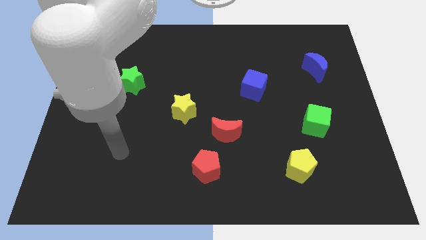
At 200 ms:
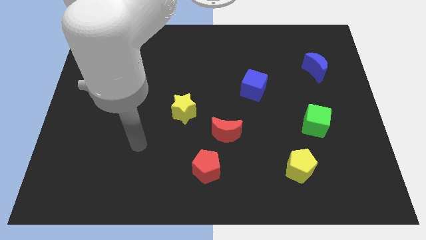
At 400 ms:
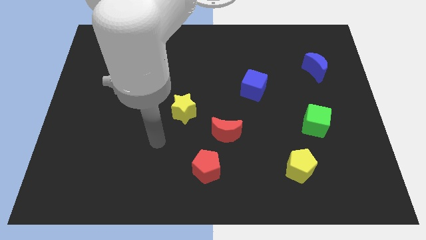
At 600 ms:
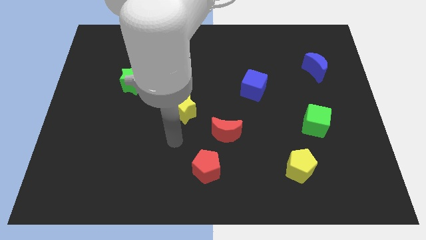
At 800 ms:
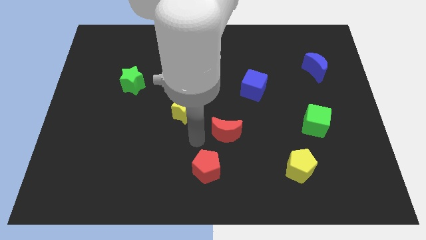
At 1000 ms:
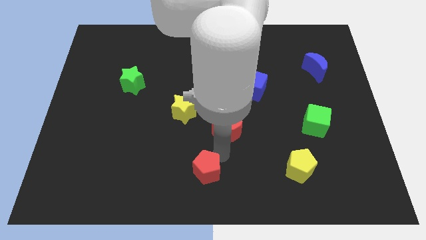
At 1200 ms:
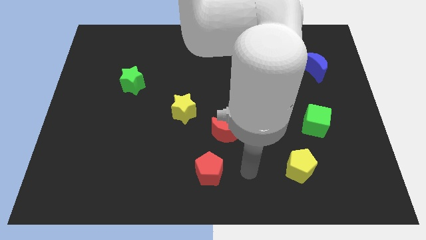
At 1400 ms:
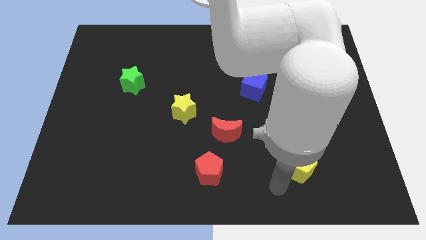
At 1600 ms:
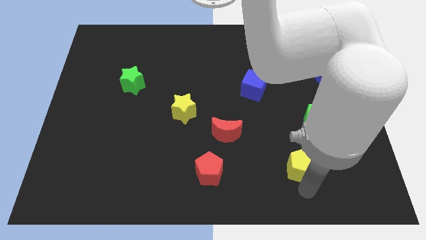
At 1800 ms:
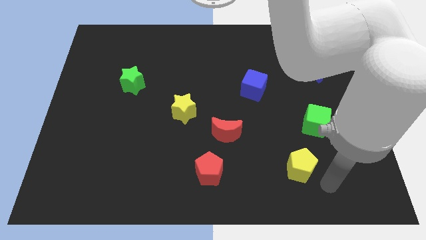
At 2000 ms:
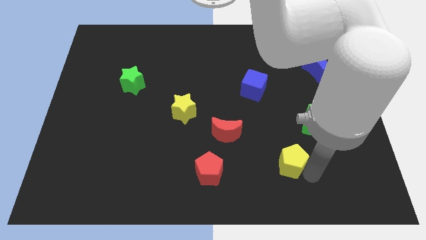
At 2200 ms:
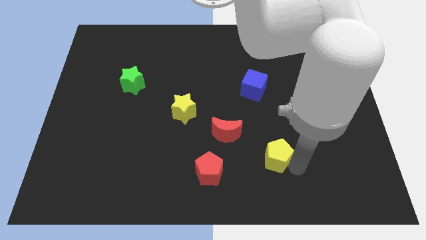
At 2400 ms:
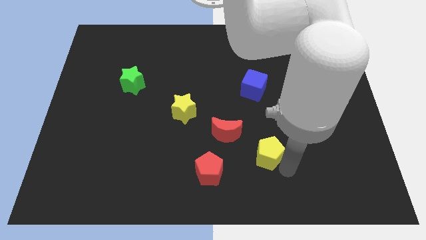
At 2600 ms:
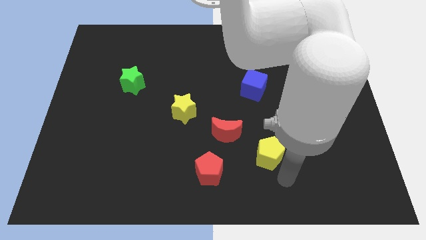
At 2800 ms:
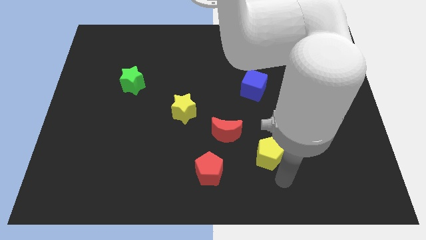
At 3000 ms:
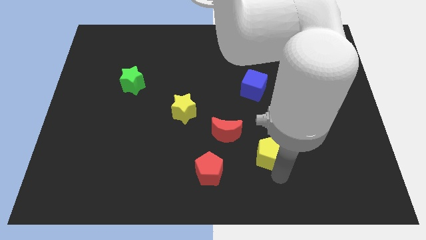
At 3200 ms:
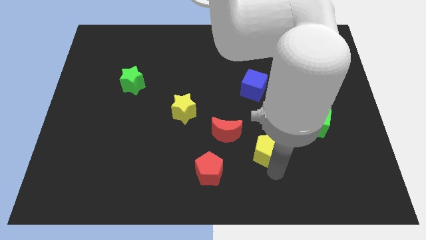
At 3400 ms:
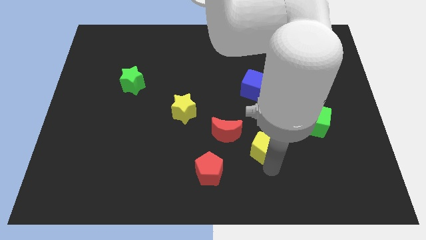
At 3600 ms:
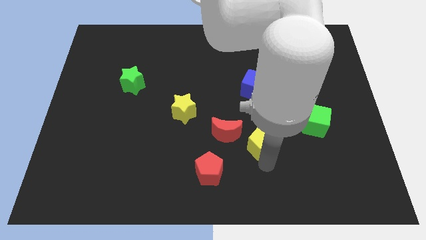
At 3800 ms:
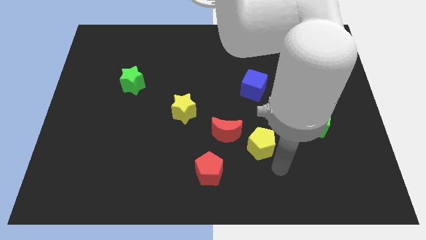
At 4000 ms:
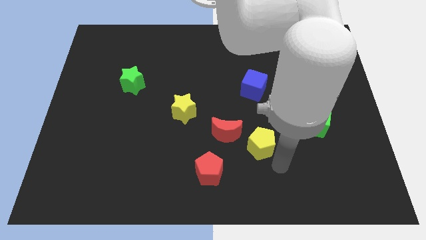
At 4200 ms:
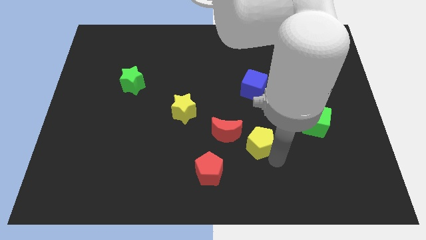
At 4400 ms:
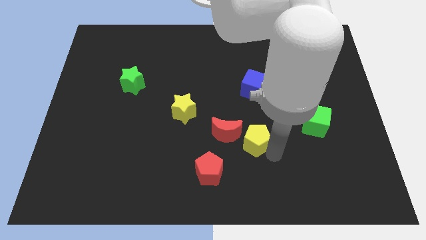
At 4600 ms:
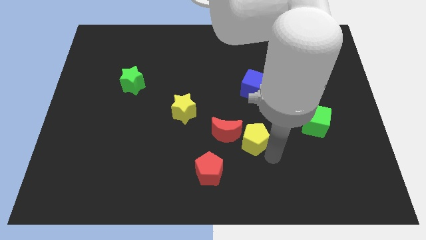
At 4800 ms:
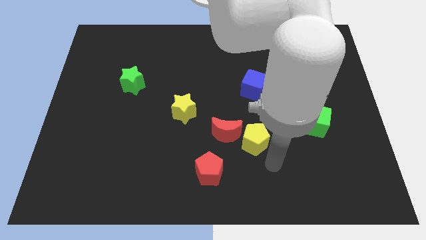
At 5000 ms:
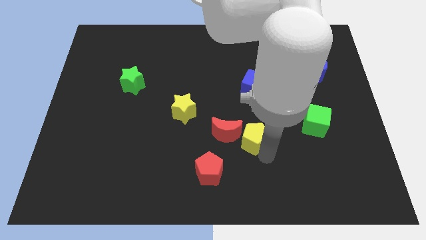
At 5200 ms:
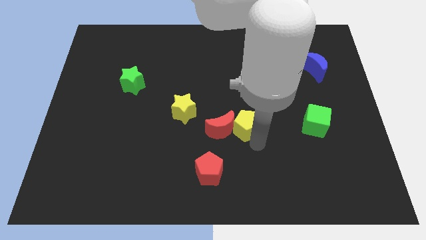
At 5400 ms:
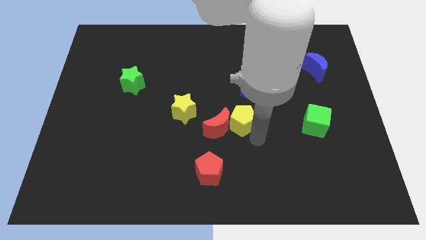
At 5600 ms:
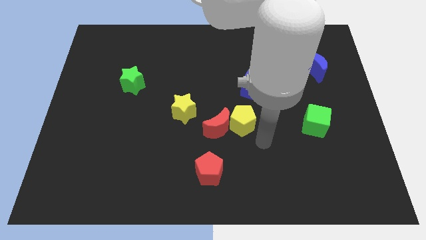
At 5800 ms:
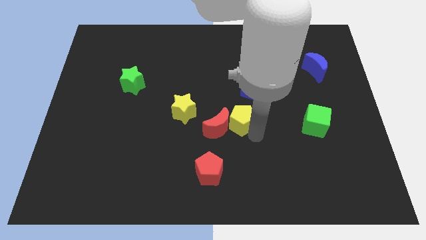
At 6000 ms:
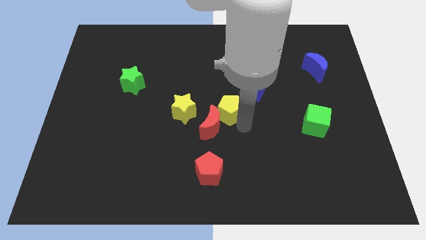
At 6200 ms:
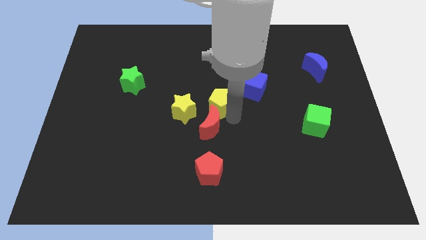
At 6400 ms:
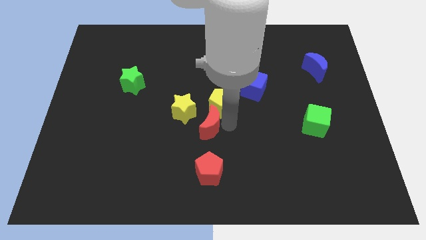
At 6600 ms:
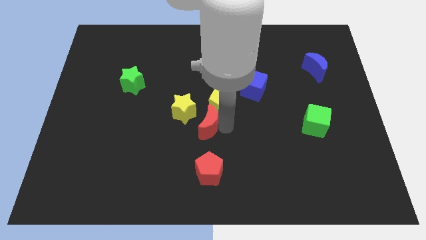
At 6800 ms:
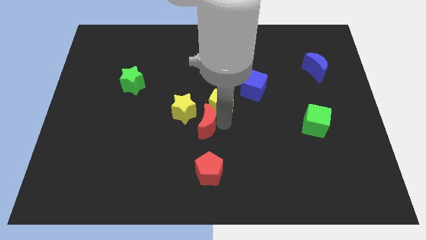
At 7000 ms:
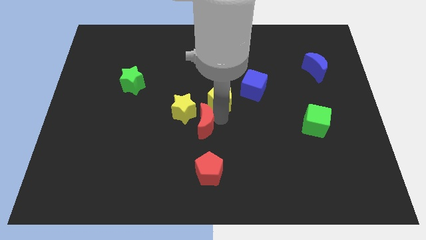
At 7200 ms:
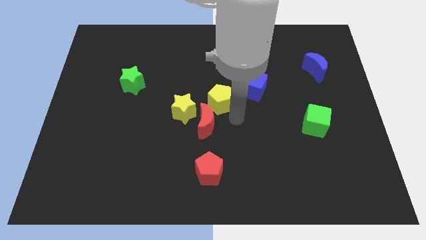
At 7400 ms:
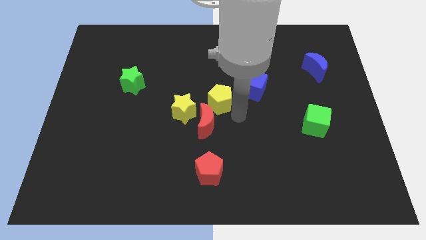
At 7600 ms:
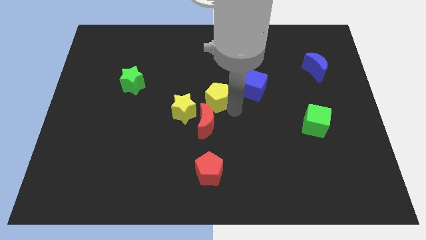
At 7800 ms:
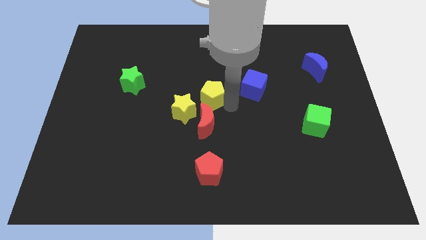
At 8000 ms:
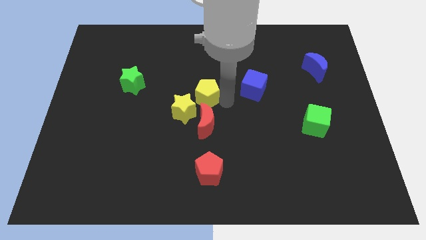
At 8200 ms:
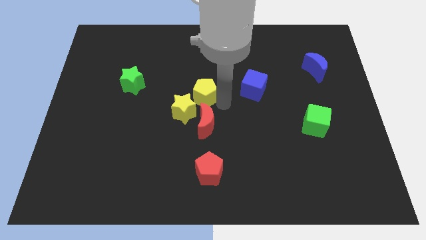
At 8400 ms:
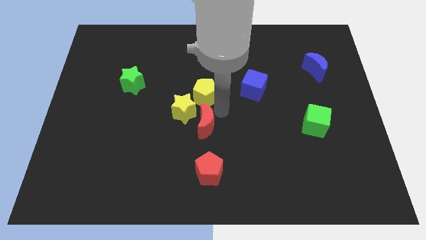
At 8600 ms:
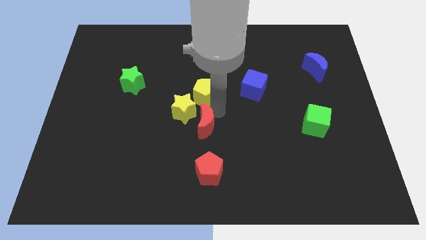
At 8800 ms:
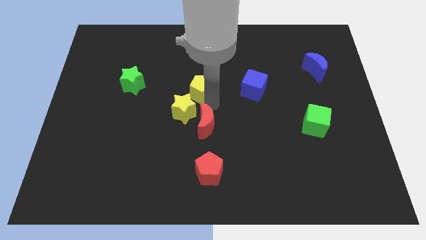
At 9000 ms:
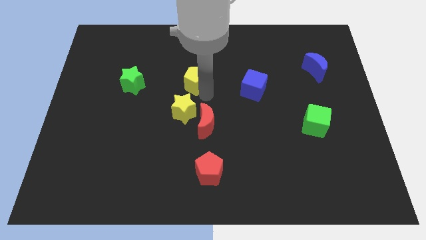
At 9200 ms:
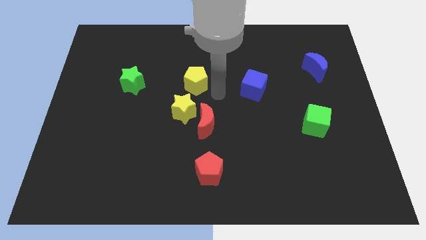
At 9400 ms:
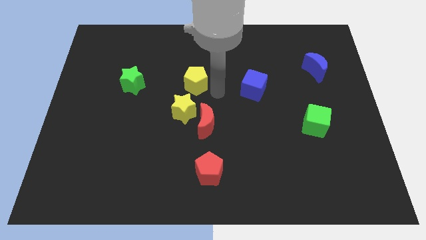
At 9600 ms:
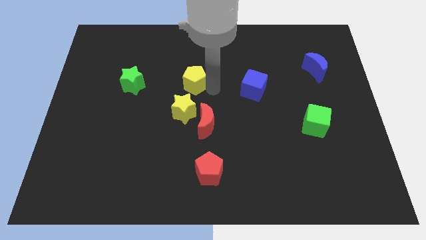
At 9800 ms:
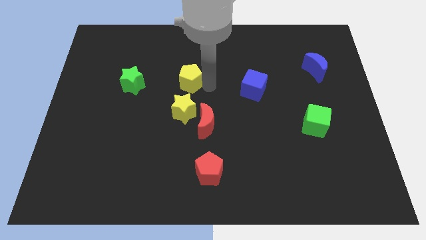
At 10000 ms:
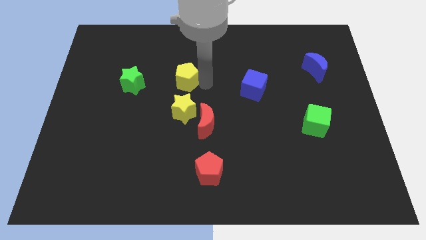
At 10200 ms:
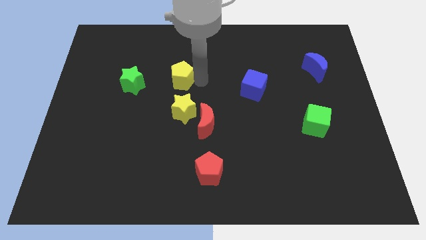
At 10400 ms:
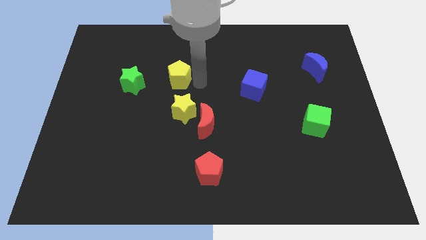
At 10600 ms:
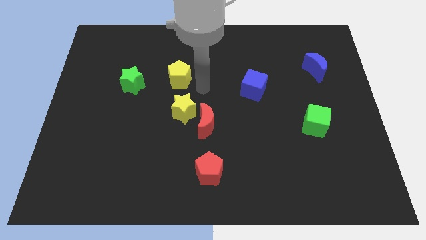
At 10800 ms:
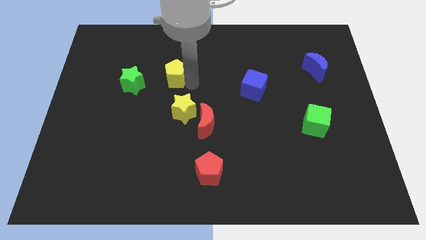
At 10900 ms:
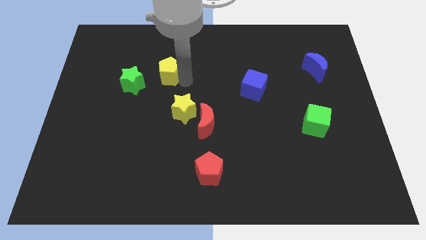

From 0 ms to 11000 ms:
push the yellow pentagon diagonally up and to the right of the green star

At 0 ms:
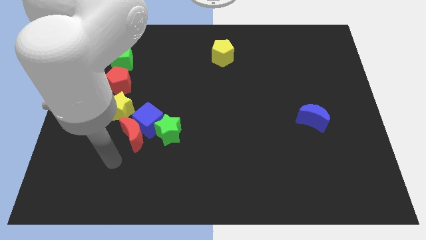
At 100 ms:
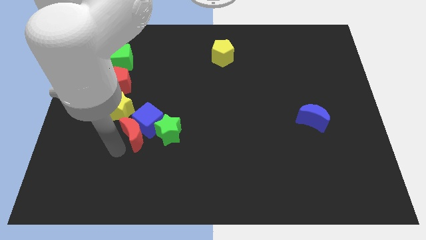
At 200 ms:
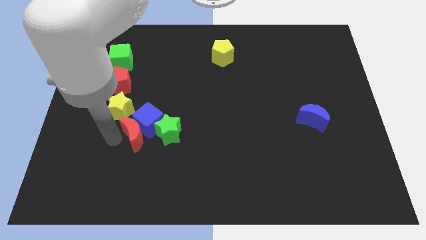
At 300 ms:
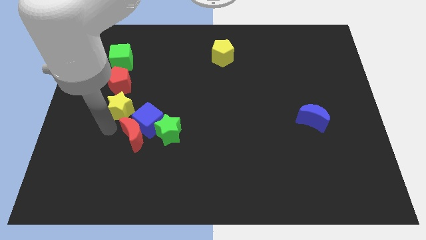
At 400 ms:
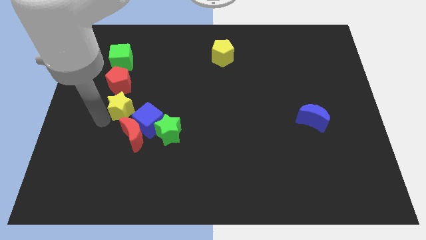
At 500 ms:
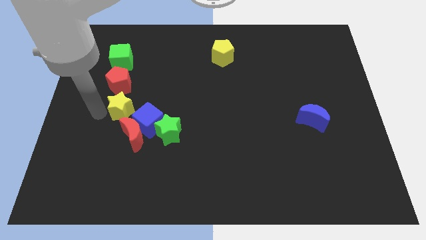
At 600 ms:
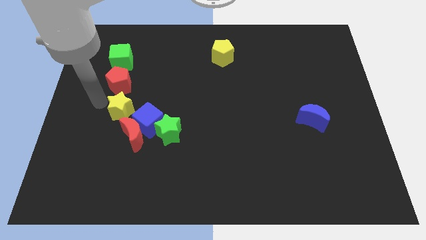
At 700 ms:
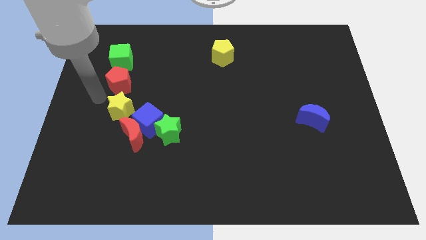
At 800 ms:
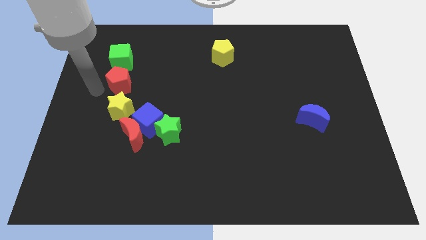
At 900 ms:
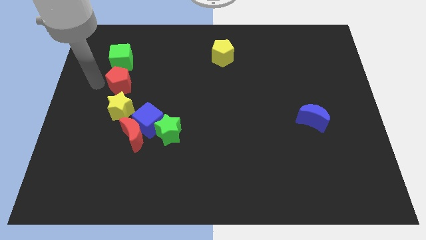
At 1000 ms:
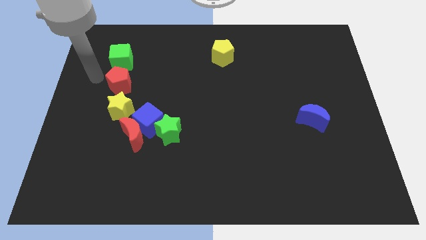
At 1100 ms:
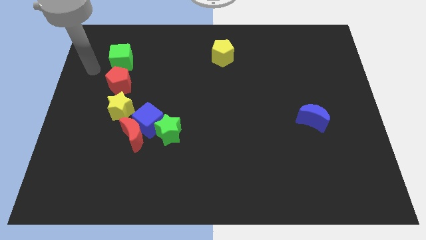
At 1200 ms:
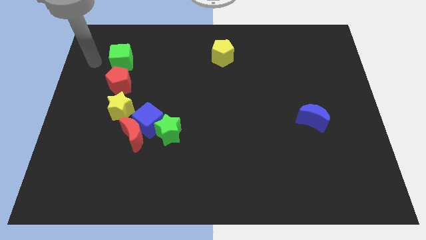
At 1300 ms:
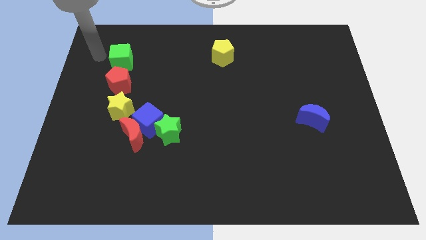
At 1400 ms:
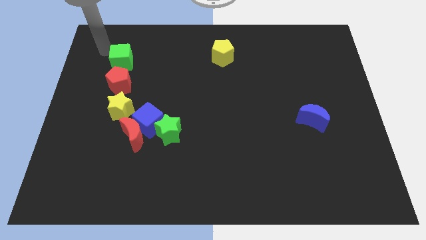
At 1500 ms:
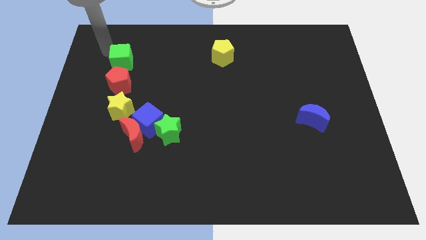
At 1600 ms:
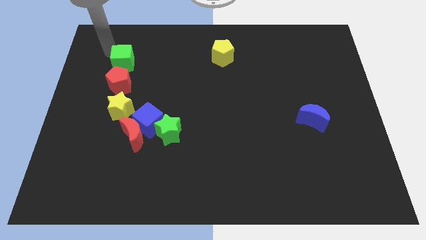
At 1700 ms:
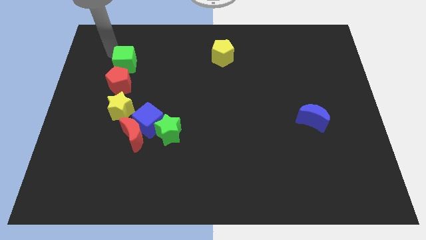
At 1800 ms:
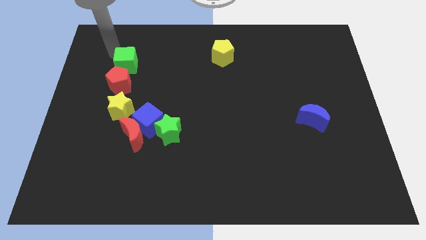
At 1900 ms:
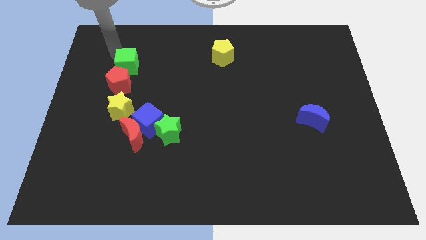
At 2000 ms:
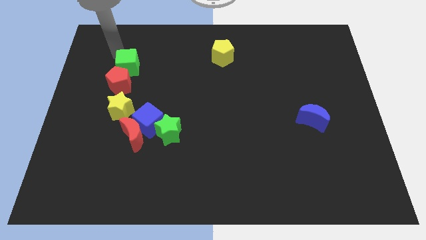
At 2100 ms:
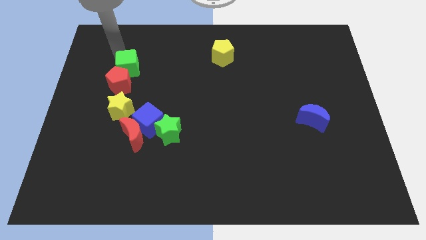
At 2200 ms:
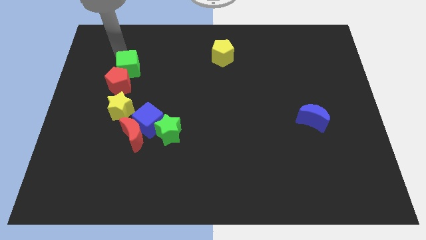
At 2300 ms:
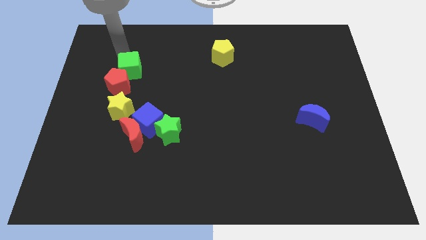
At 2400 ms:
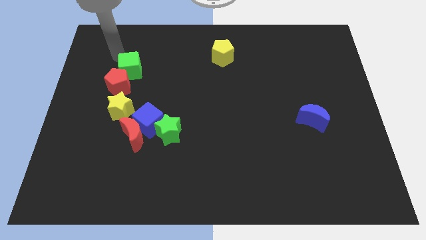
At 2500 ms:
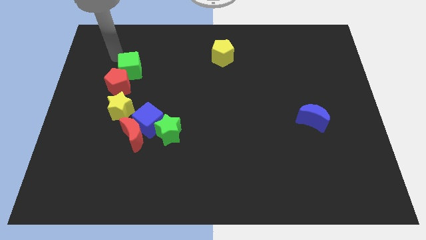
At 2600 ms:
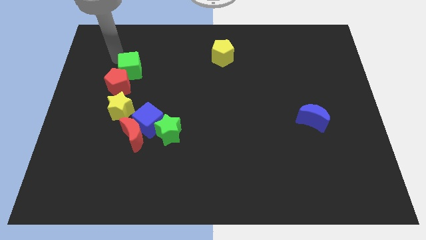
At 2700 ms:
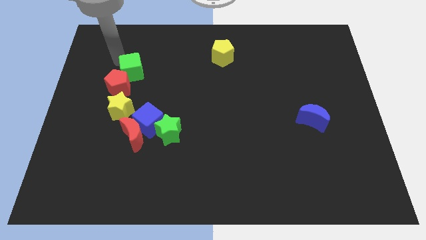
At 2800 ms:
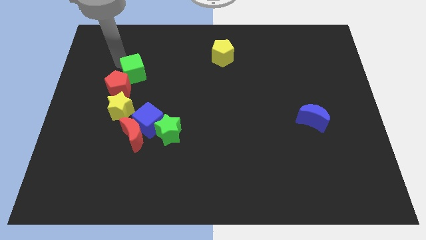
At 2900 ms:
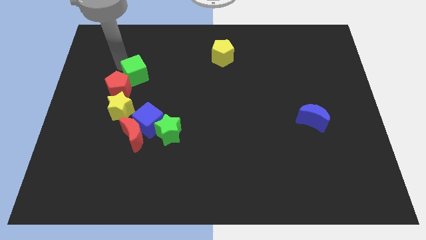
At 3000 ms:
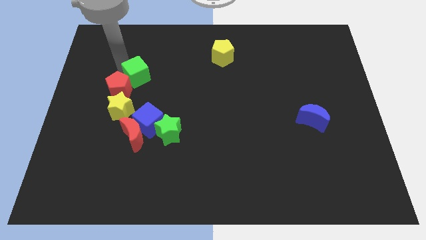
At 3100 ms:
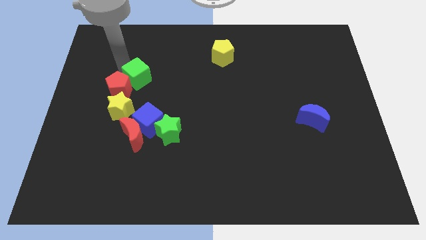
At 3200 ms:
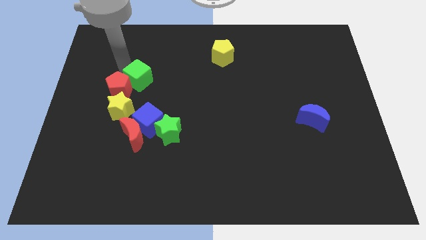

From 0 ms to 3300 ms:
move the green cube to the top of the blue cube
